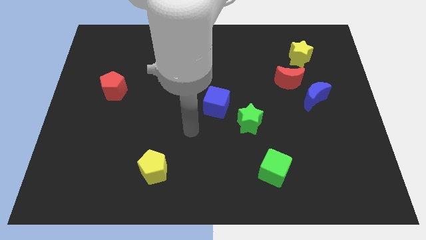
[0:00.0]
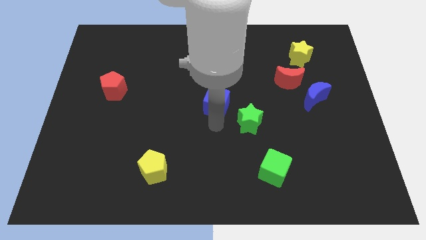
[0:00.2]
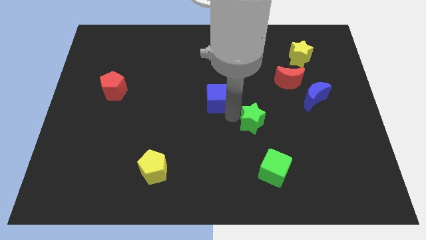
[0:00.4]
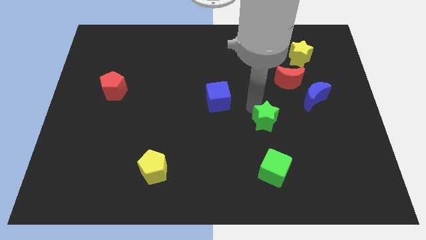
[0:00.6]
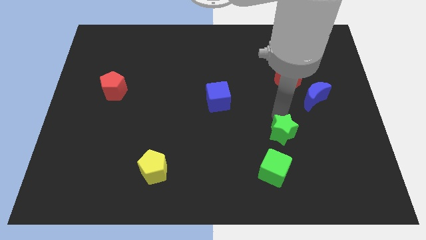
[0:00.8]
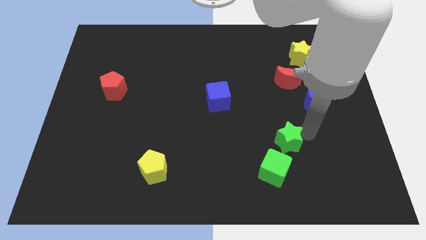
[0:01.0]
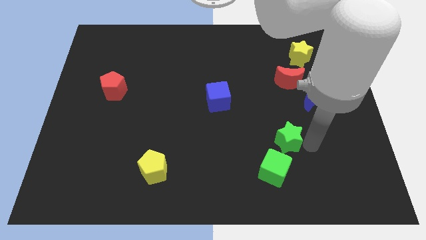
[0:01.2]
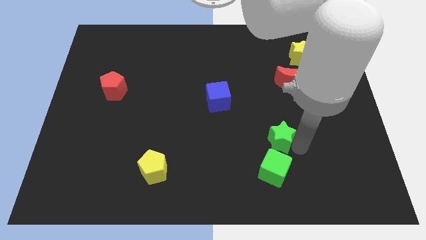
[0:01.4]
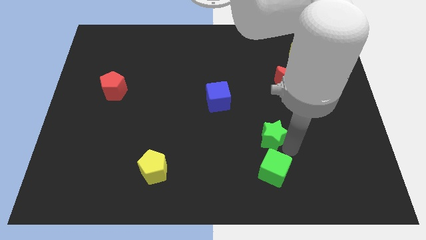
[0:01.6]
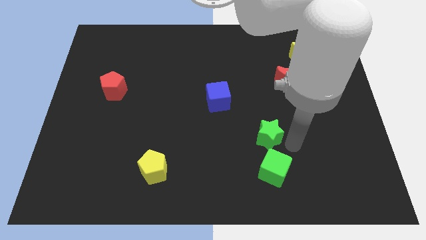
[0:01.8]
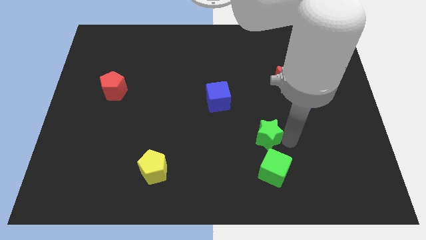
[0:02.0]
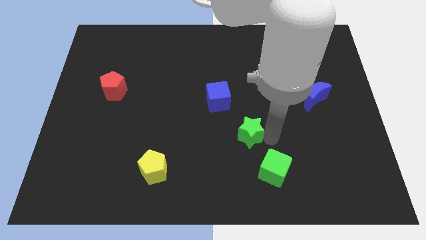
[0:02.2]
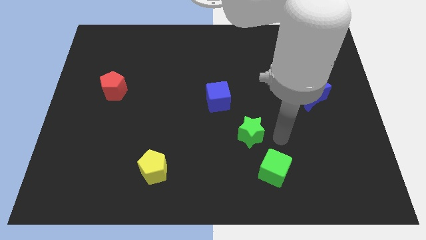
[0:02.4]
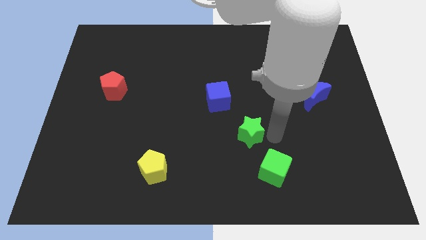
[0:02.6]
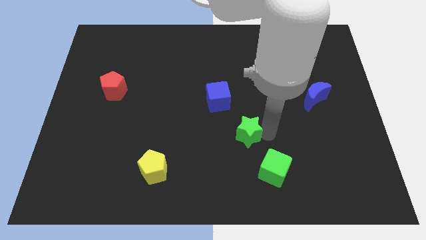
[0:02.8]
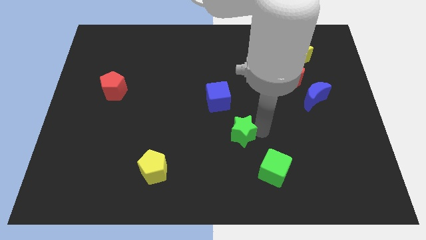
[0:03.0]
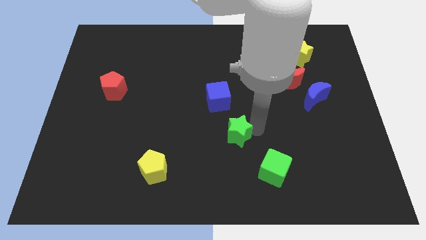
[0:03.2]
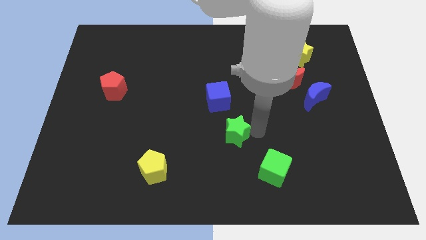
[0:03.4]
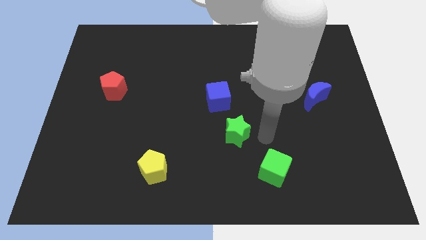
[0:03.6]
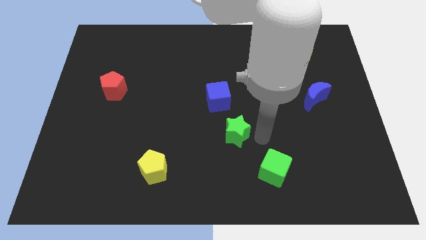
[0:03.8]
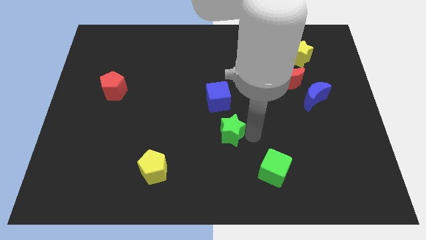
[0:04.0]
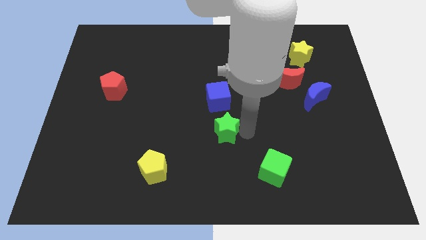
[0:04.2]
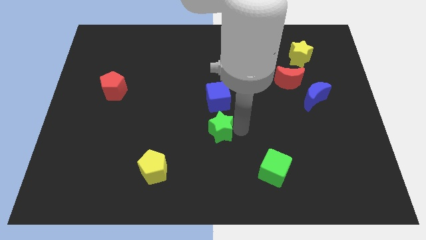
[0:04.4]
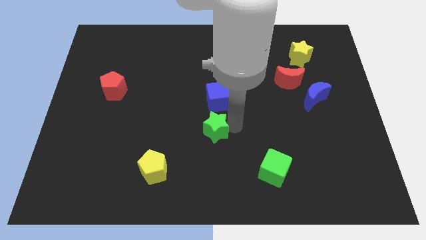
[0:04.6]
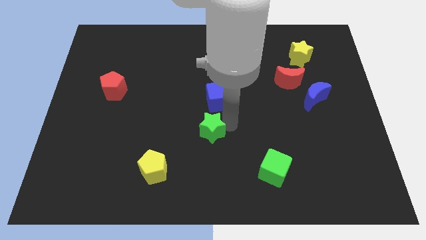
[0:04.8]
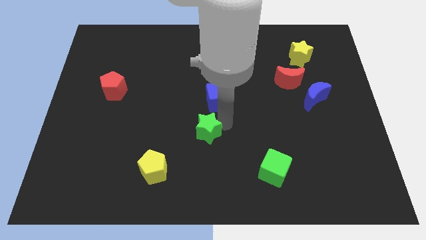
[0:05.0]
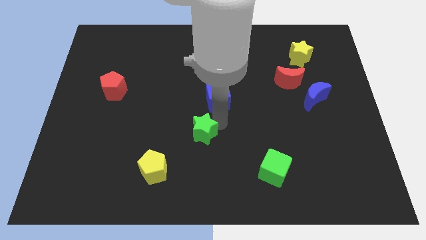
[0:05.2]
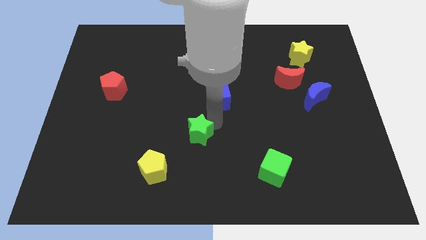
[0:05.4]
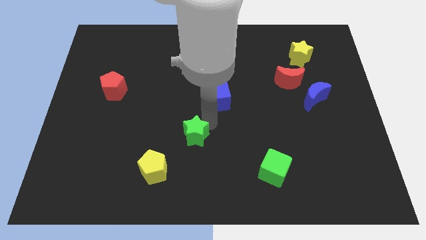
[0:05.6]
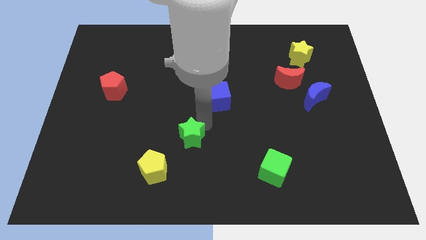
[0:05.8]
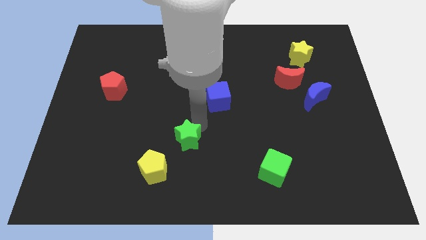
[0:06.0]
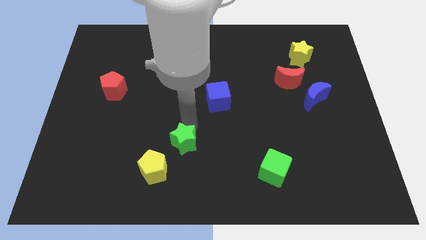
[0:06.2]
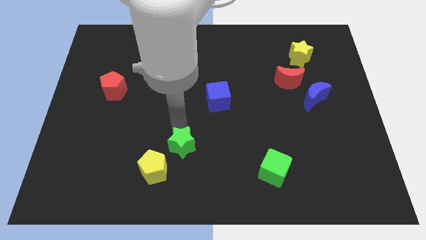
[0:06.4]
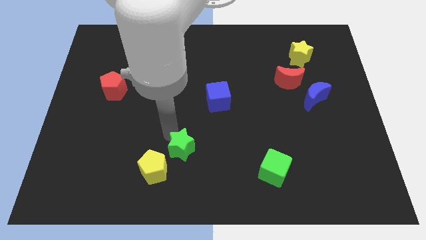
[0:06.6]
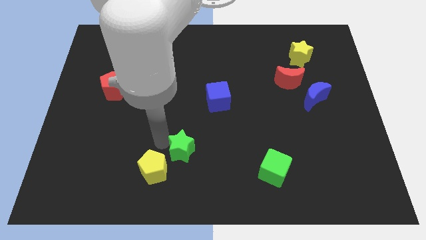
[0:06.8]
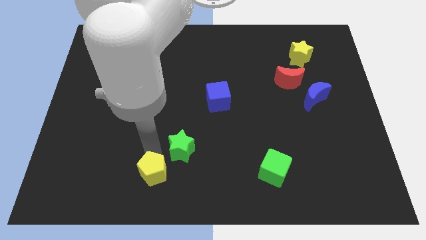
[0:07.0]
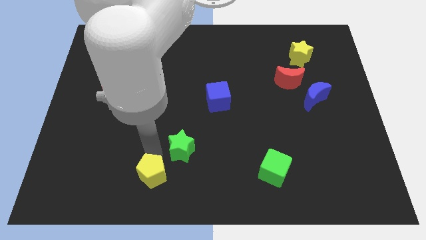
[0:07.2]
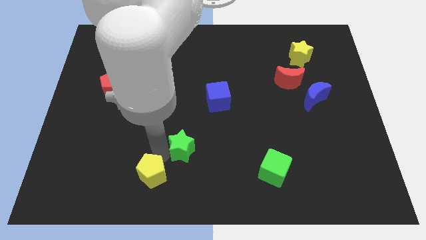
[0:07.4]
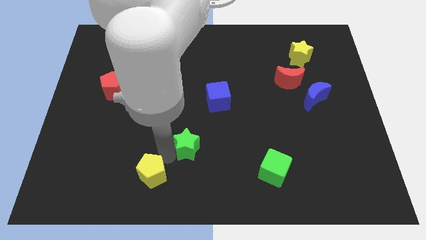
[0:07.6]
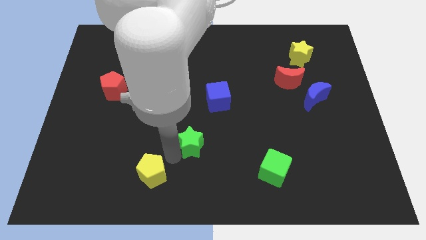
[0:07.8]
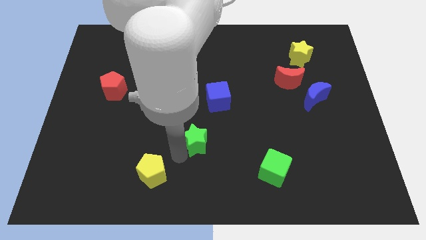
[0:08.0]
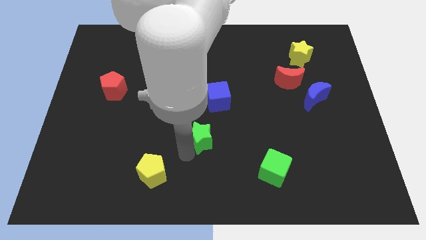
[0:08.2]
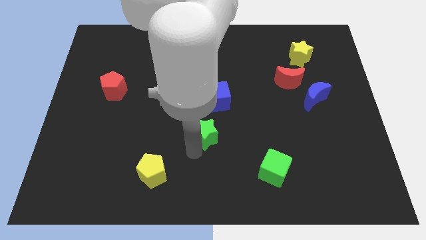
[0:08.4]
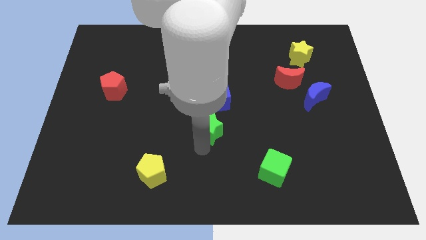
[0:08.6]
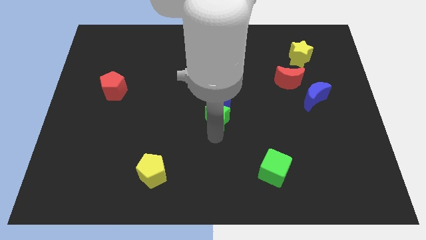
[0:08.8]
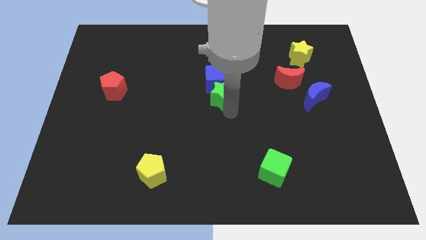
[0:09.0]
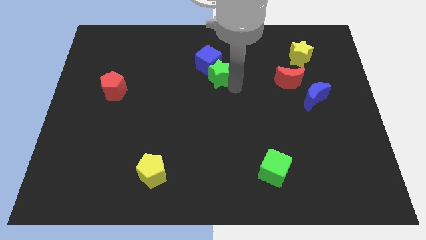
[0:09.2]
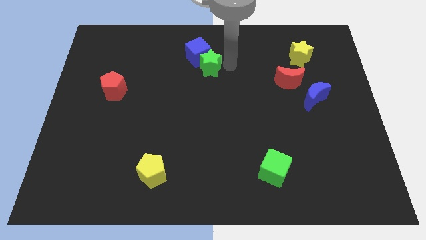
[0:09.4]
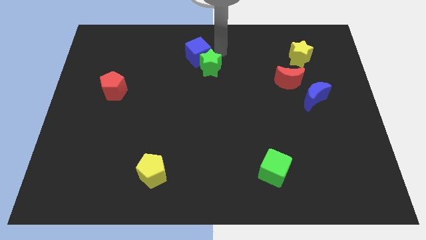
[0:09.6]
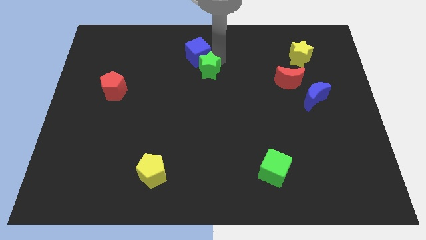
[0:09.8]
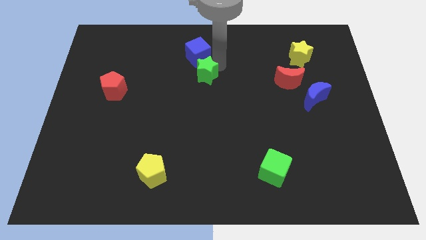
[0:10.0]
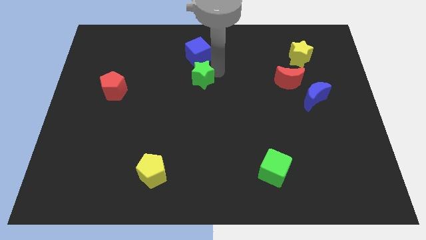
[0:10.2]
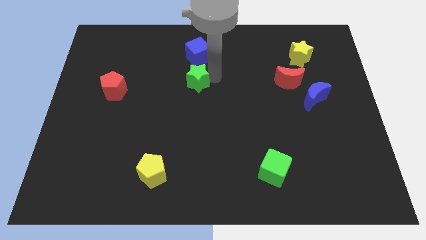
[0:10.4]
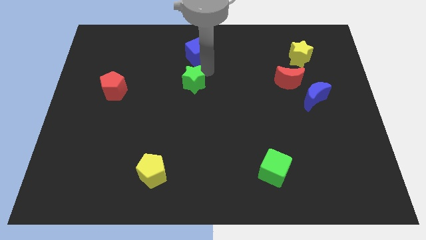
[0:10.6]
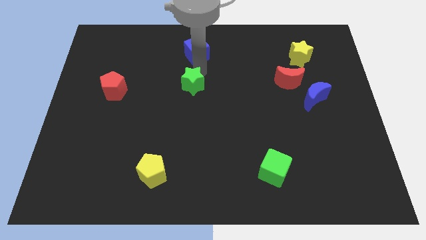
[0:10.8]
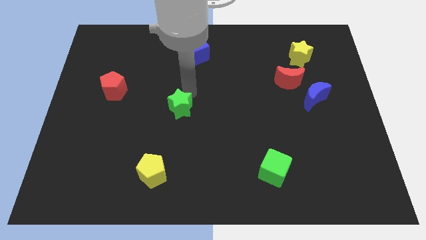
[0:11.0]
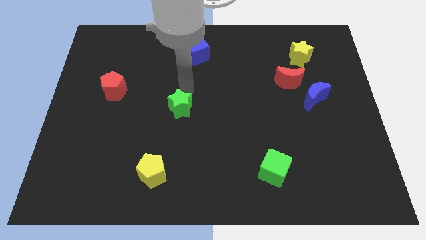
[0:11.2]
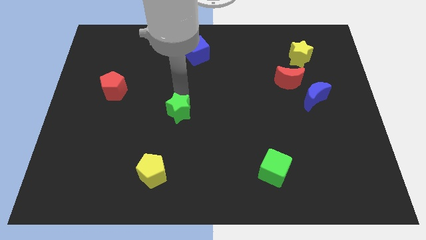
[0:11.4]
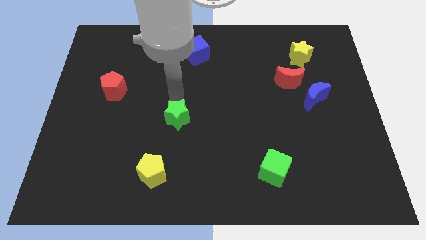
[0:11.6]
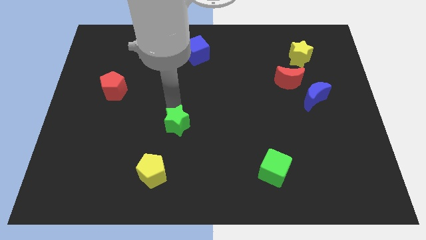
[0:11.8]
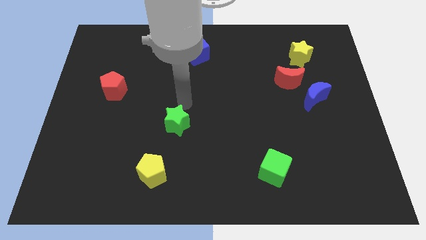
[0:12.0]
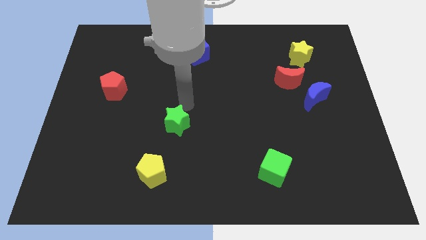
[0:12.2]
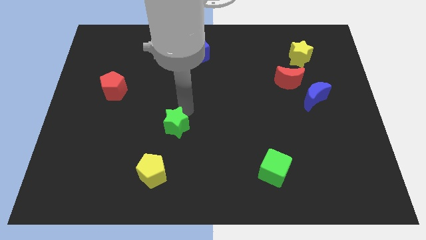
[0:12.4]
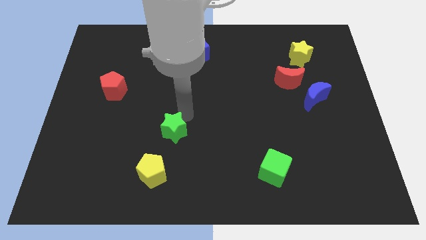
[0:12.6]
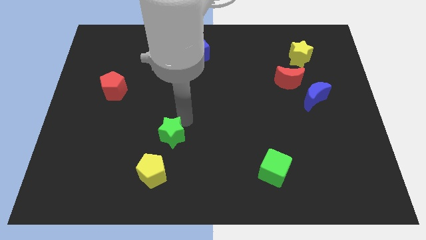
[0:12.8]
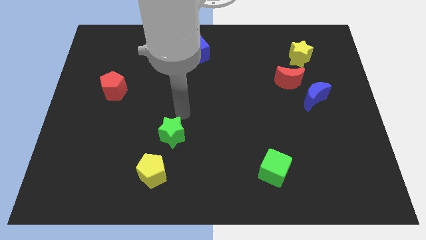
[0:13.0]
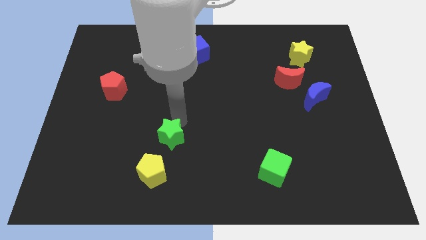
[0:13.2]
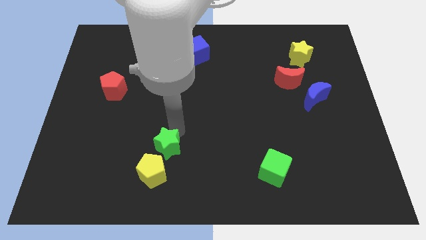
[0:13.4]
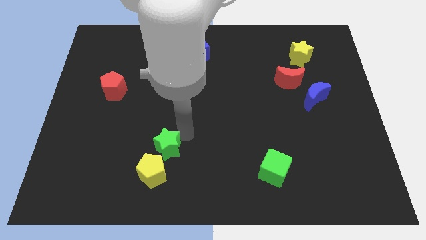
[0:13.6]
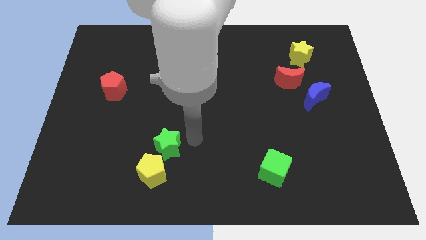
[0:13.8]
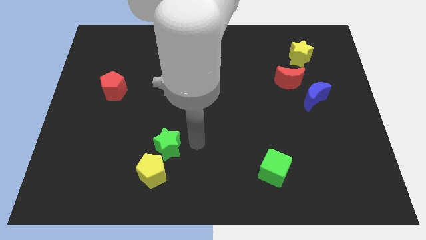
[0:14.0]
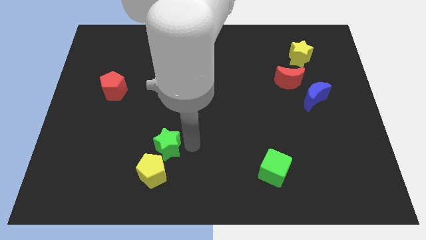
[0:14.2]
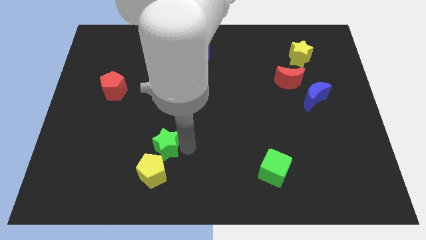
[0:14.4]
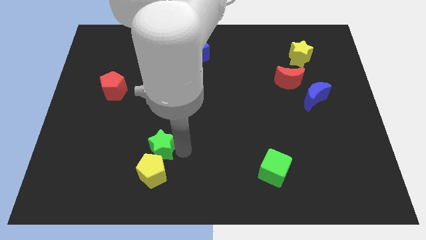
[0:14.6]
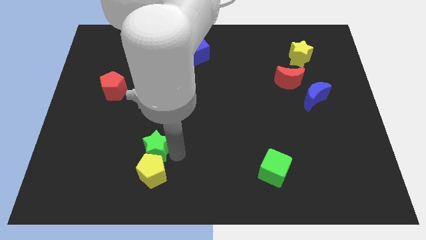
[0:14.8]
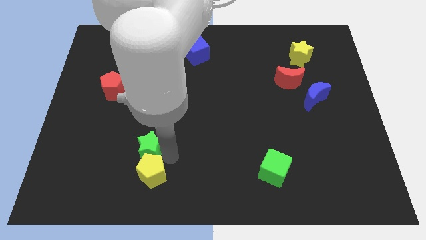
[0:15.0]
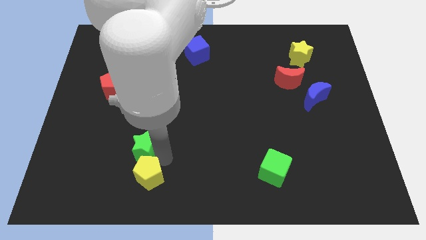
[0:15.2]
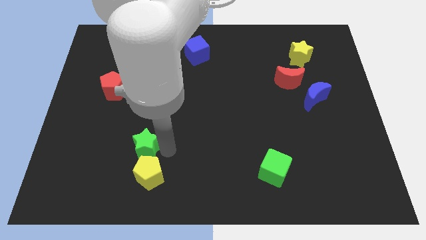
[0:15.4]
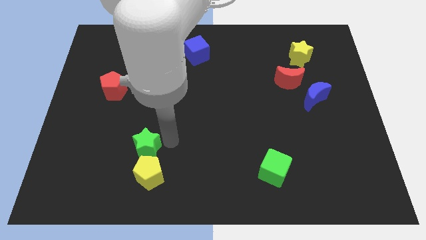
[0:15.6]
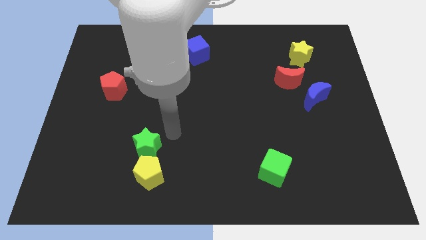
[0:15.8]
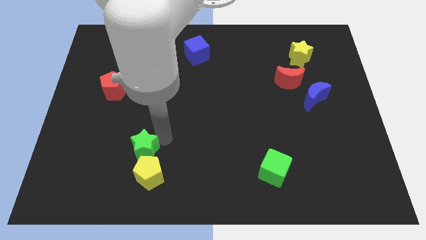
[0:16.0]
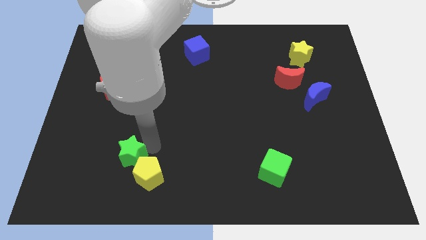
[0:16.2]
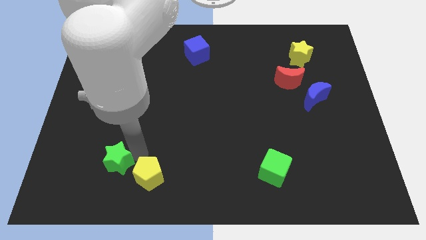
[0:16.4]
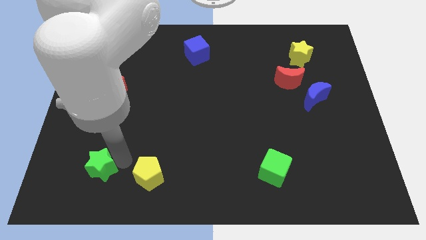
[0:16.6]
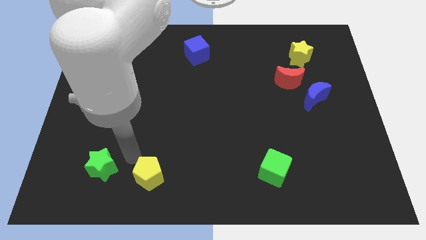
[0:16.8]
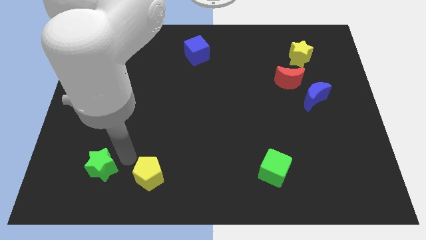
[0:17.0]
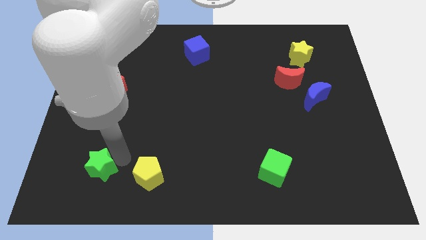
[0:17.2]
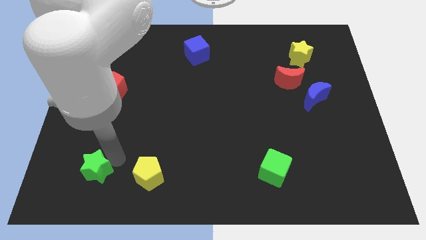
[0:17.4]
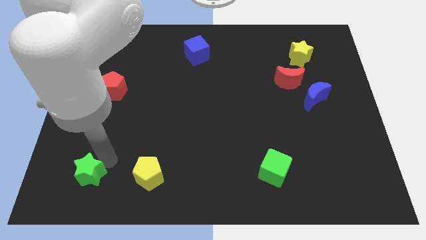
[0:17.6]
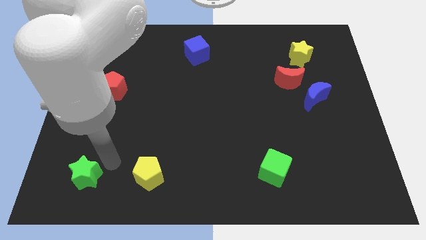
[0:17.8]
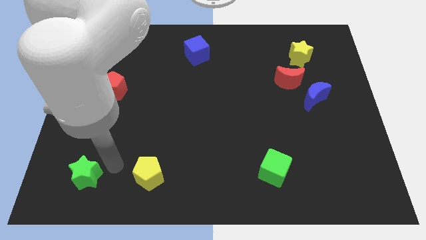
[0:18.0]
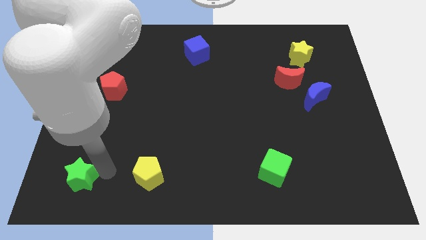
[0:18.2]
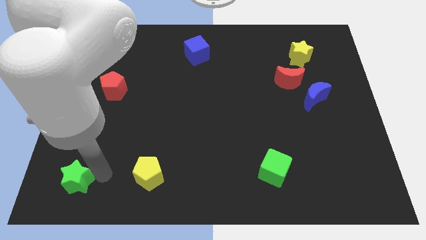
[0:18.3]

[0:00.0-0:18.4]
put the green star to the bottom left of the board
